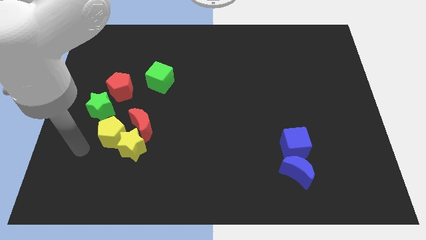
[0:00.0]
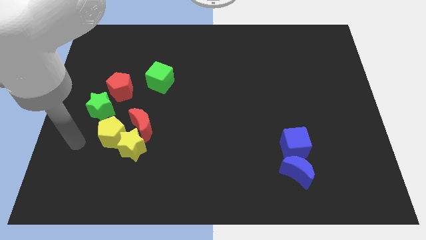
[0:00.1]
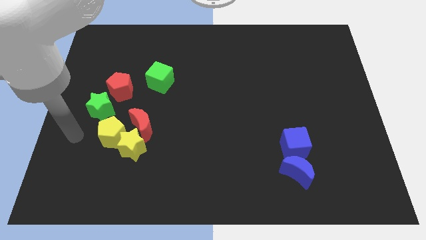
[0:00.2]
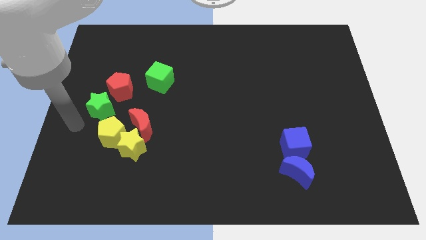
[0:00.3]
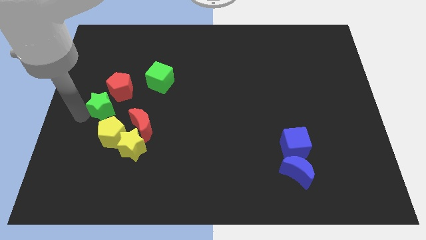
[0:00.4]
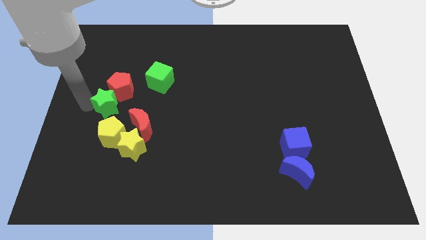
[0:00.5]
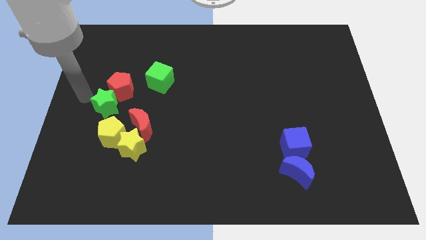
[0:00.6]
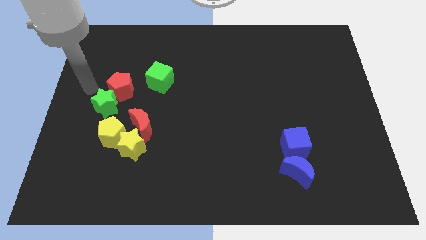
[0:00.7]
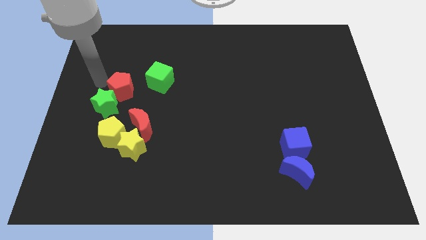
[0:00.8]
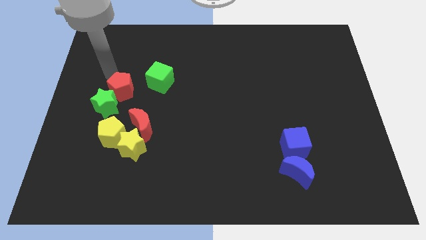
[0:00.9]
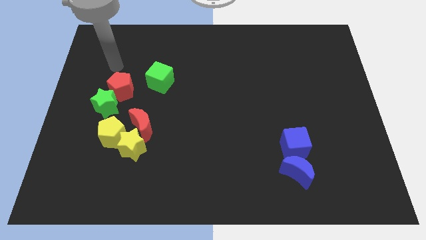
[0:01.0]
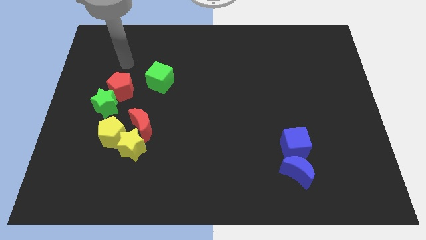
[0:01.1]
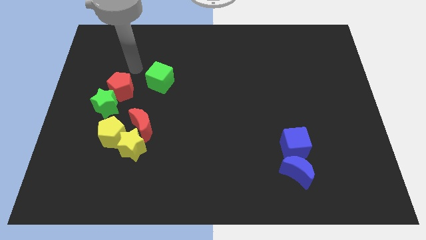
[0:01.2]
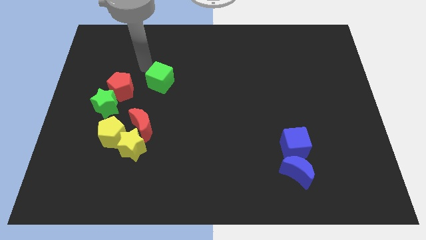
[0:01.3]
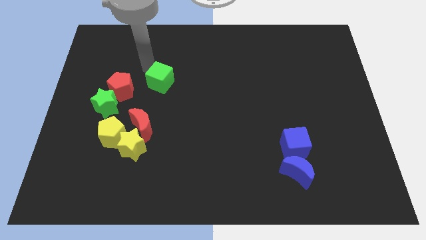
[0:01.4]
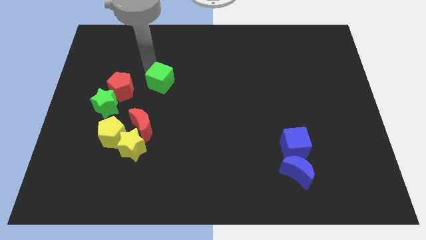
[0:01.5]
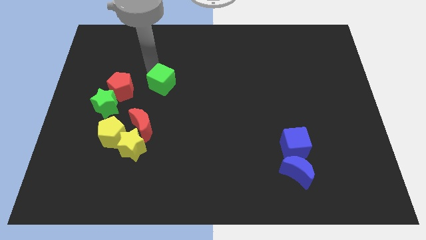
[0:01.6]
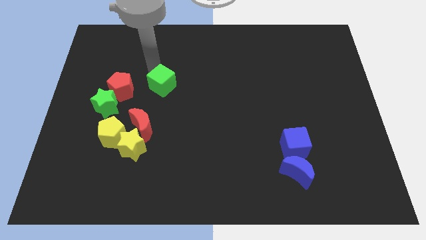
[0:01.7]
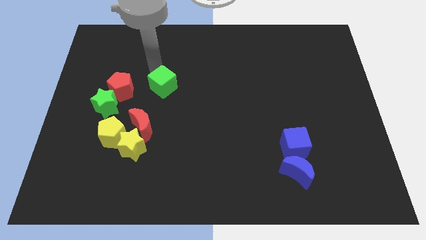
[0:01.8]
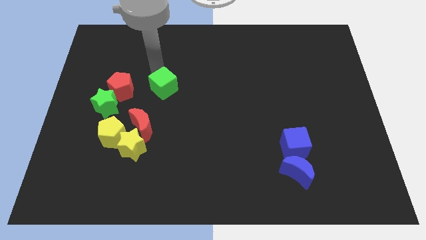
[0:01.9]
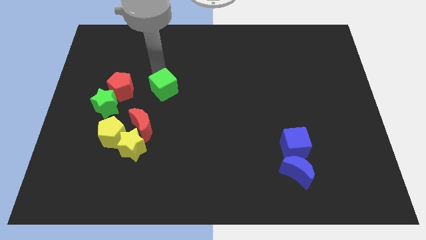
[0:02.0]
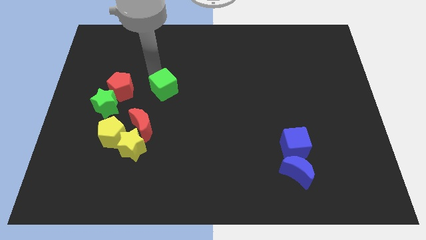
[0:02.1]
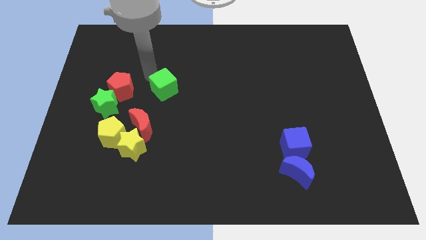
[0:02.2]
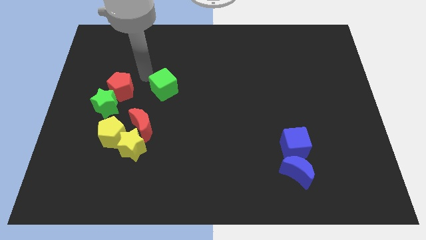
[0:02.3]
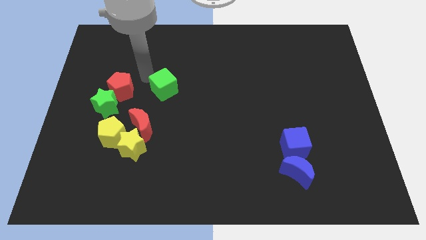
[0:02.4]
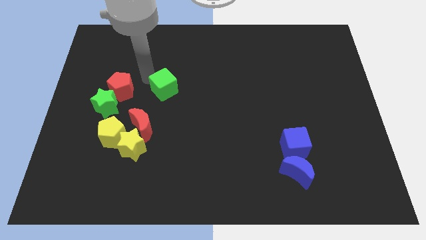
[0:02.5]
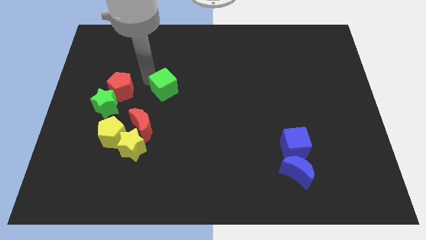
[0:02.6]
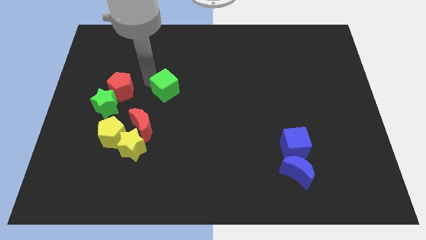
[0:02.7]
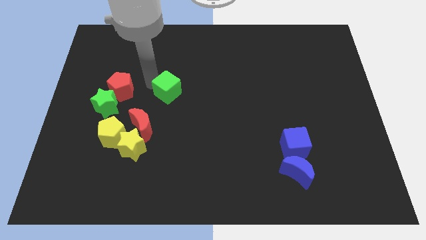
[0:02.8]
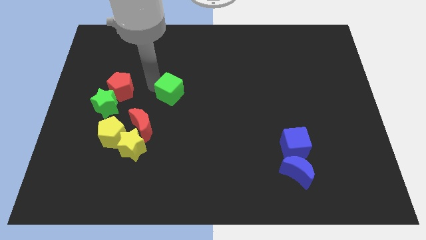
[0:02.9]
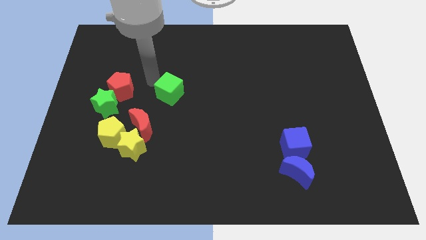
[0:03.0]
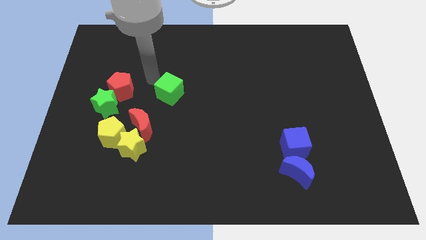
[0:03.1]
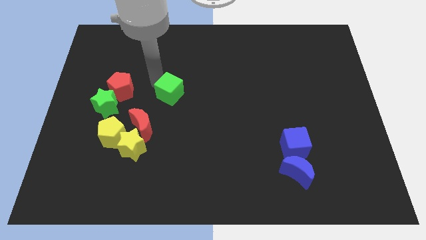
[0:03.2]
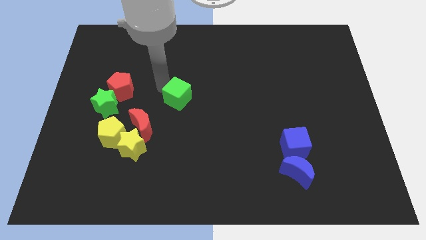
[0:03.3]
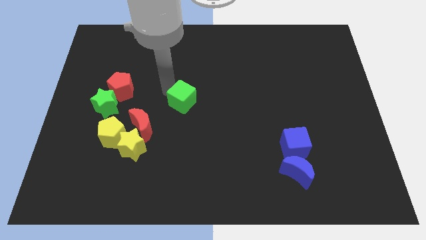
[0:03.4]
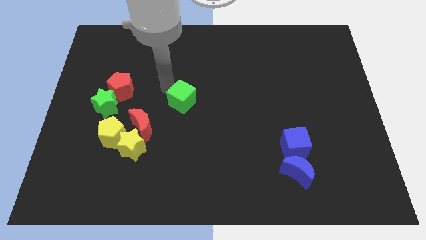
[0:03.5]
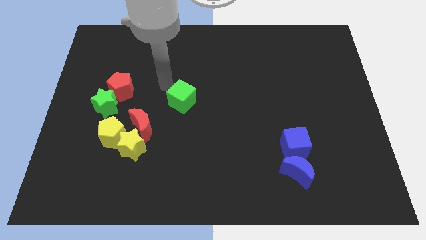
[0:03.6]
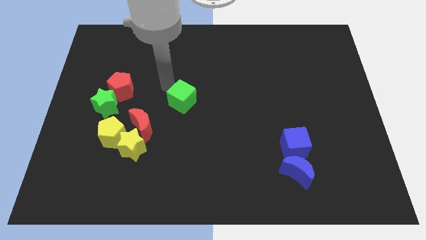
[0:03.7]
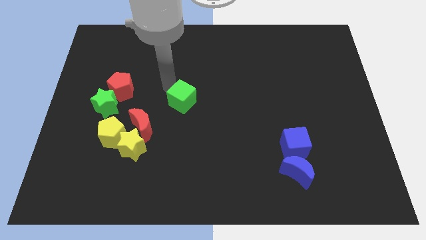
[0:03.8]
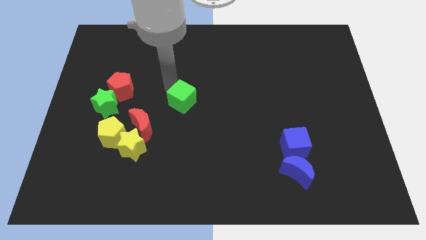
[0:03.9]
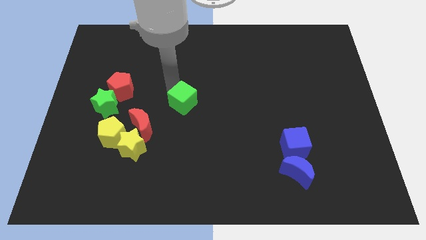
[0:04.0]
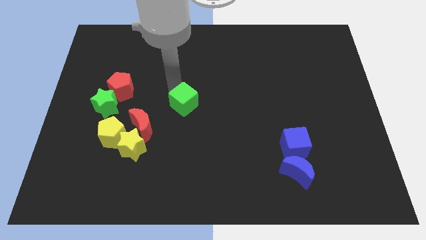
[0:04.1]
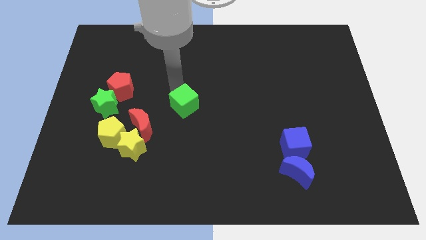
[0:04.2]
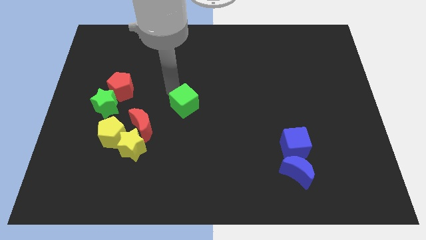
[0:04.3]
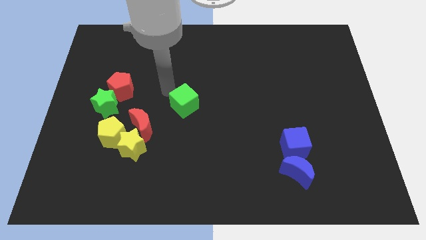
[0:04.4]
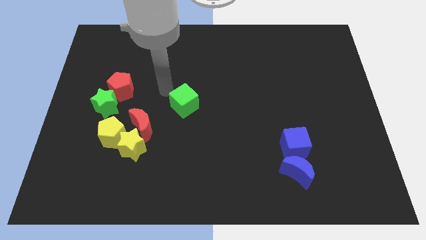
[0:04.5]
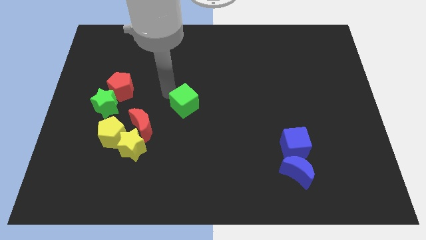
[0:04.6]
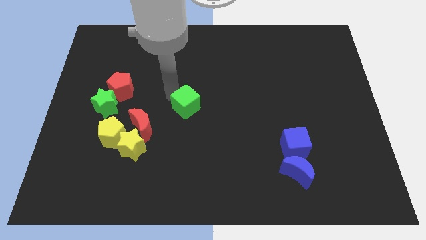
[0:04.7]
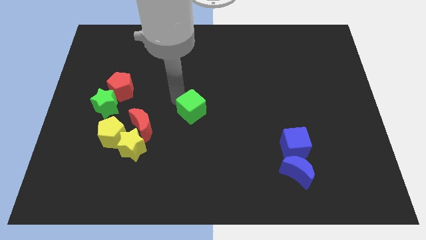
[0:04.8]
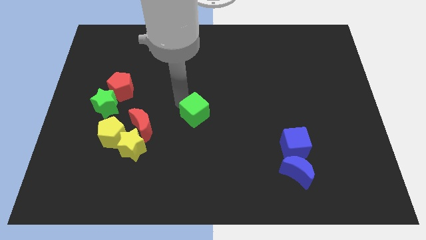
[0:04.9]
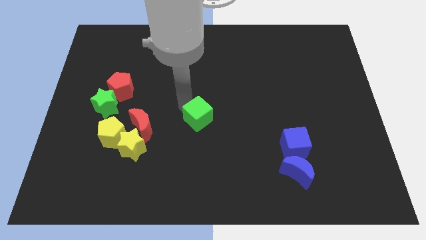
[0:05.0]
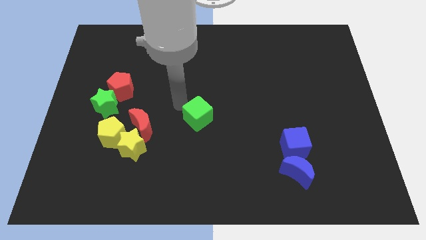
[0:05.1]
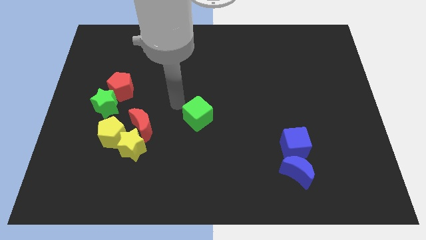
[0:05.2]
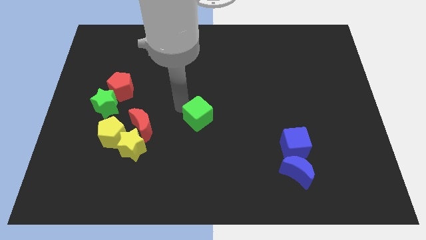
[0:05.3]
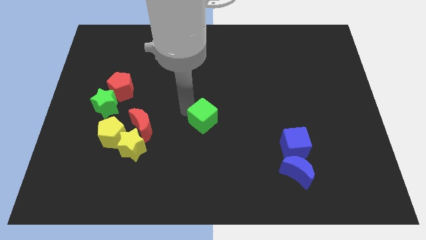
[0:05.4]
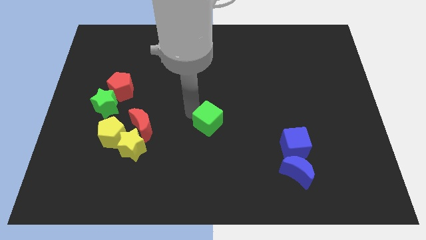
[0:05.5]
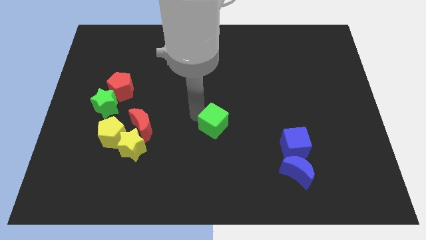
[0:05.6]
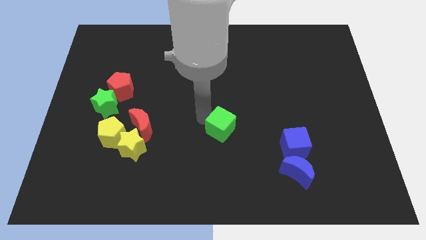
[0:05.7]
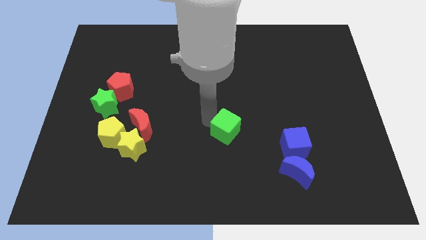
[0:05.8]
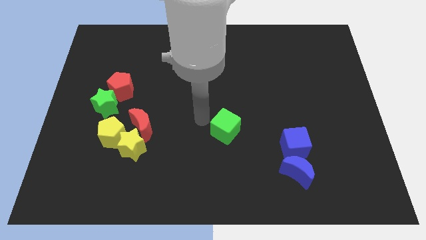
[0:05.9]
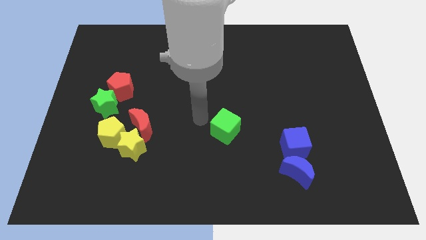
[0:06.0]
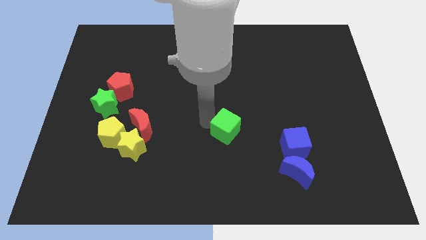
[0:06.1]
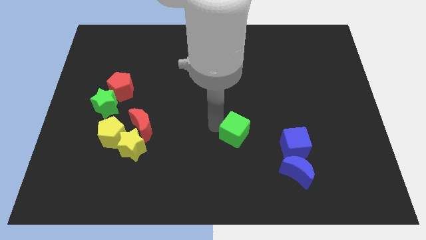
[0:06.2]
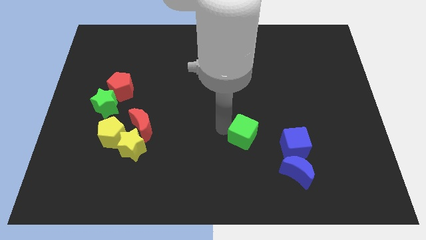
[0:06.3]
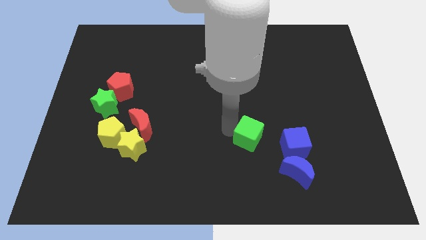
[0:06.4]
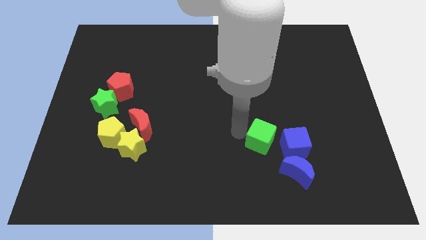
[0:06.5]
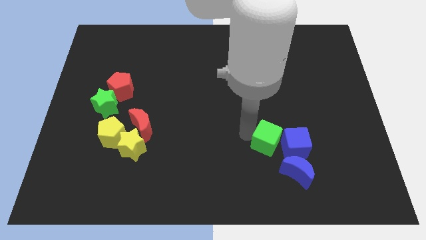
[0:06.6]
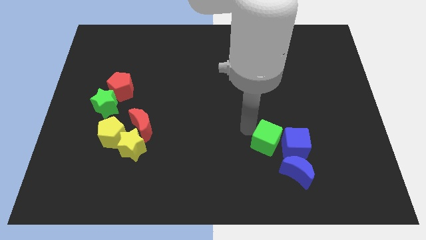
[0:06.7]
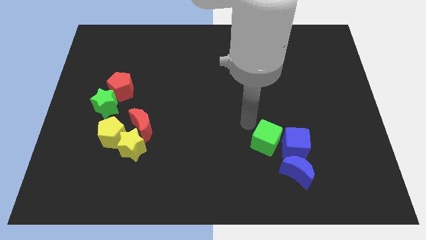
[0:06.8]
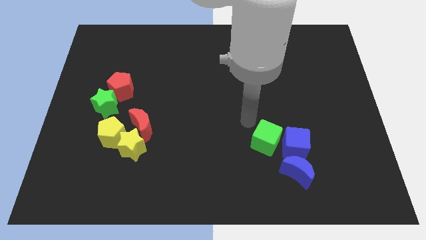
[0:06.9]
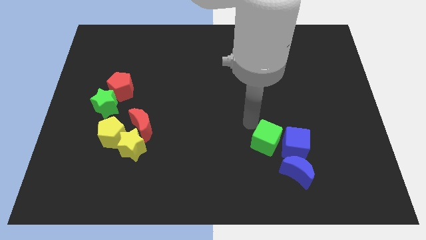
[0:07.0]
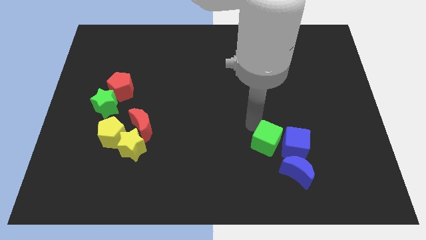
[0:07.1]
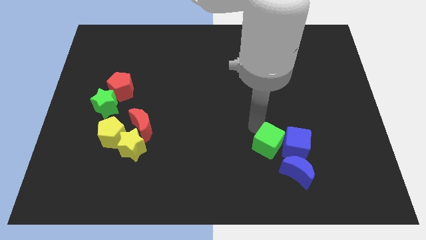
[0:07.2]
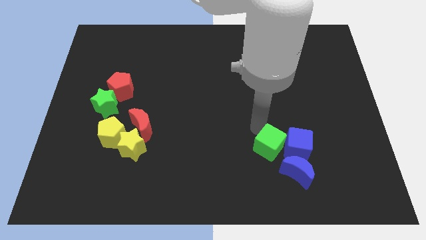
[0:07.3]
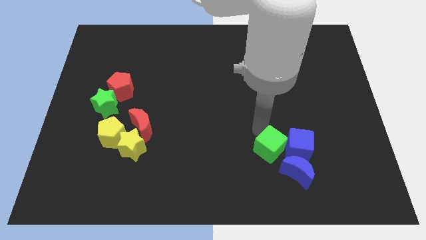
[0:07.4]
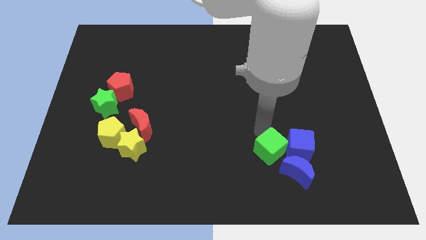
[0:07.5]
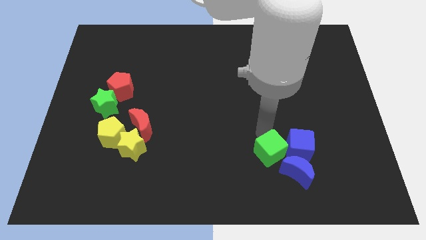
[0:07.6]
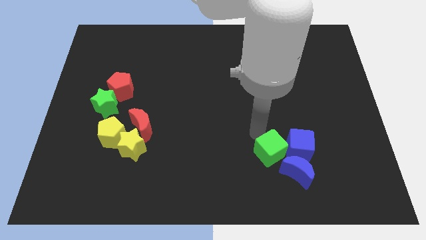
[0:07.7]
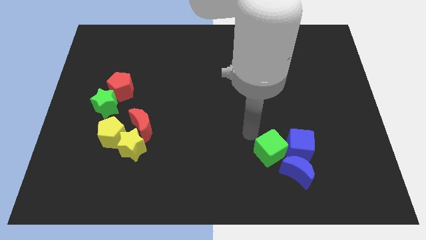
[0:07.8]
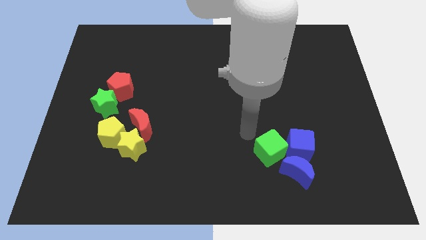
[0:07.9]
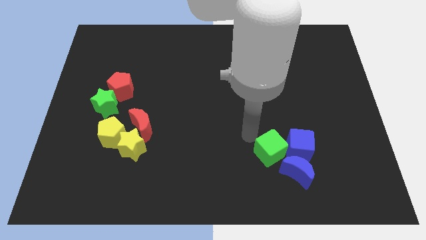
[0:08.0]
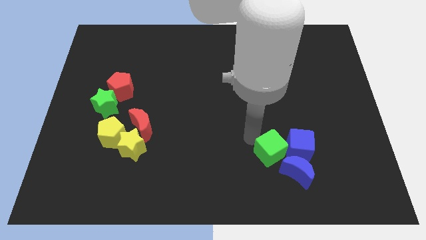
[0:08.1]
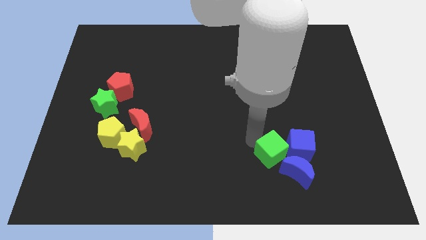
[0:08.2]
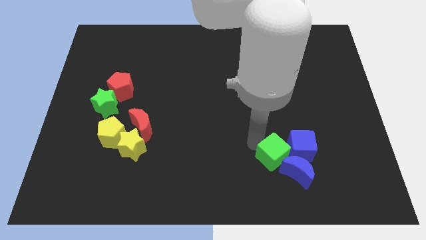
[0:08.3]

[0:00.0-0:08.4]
slide the green cube towards the blue moon
